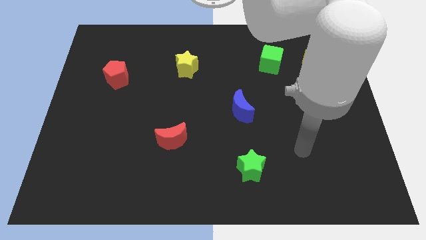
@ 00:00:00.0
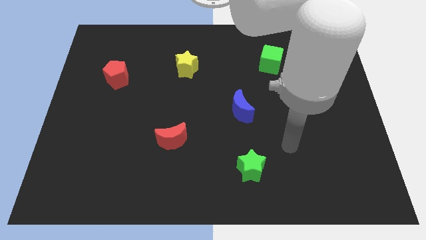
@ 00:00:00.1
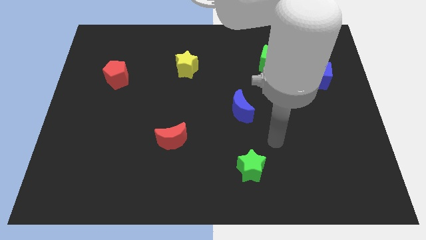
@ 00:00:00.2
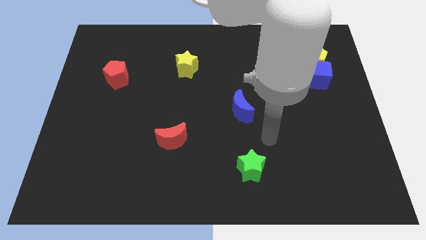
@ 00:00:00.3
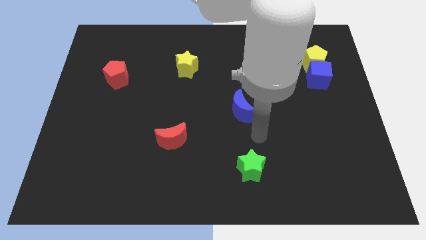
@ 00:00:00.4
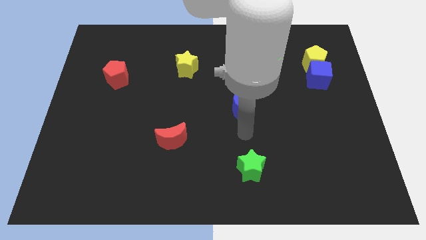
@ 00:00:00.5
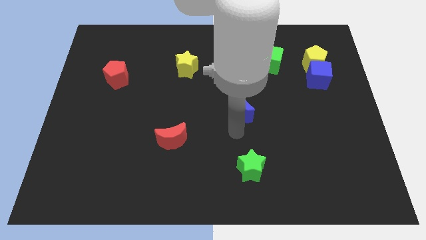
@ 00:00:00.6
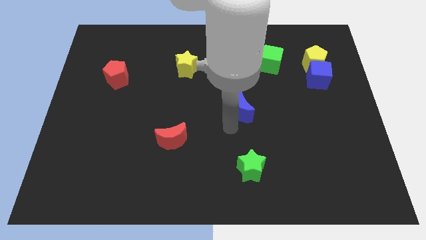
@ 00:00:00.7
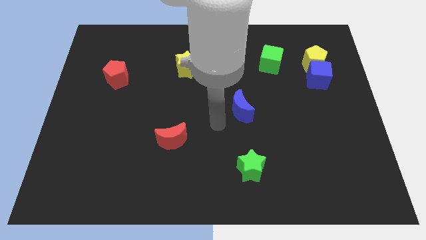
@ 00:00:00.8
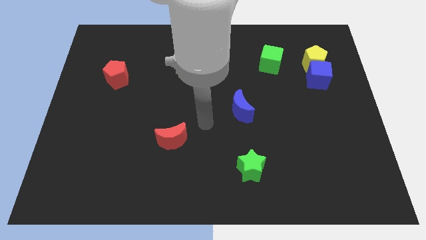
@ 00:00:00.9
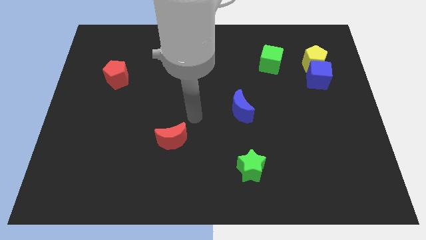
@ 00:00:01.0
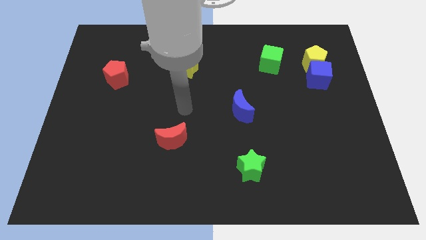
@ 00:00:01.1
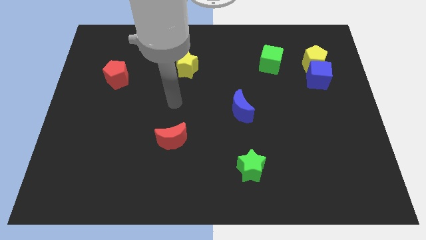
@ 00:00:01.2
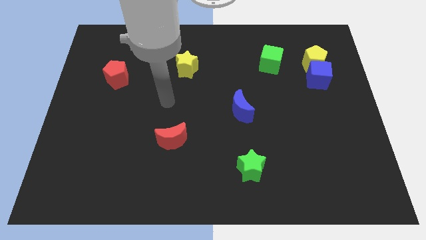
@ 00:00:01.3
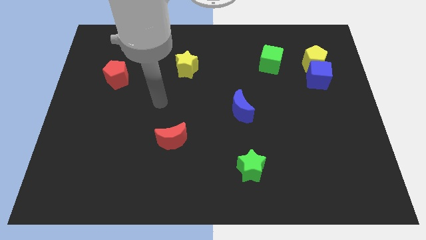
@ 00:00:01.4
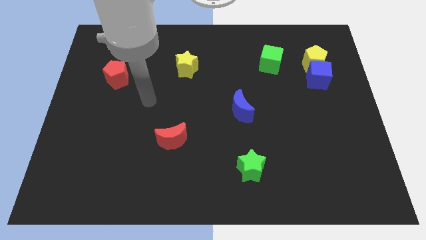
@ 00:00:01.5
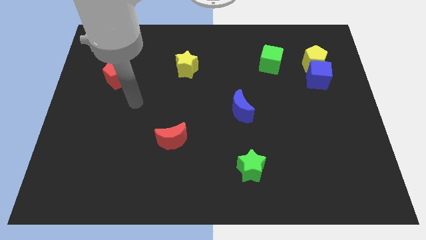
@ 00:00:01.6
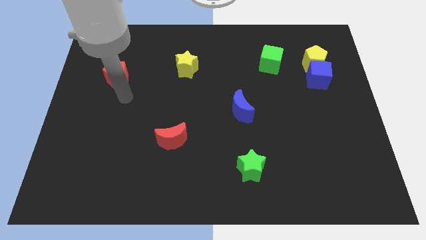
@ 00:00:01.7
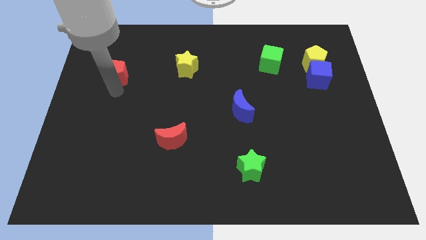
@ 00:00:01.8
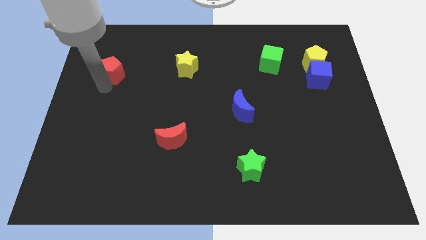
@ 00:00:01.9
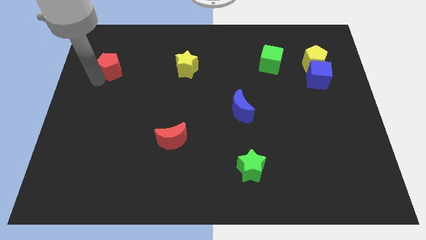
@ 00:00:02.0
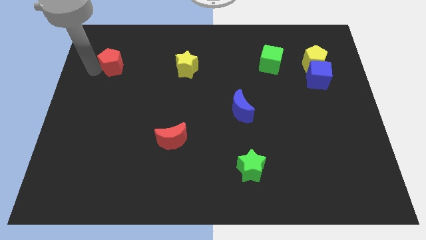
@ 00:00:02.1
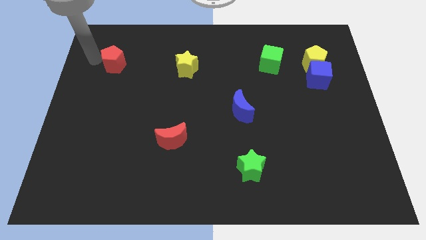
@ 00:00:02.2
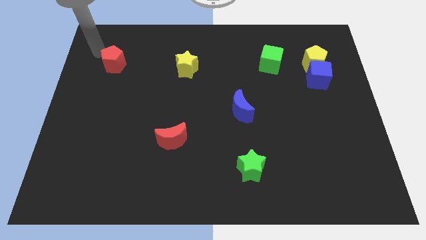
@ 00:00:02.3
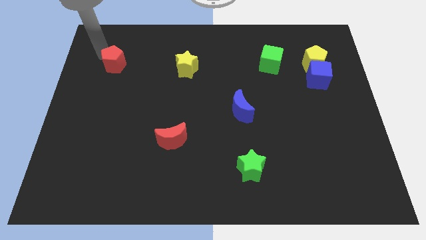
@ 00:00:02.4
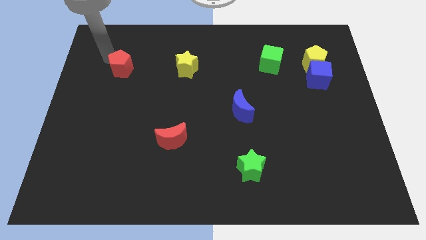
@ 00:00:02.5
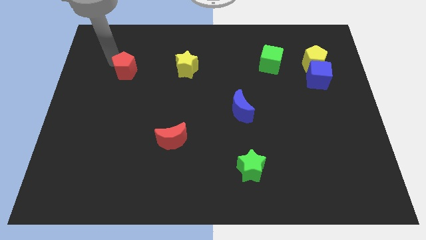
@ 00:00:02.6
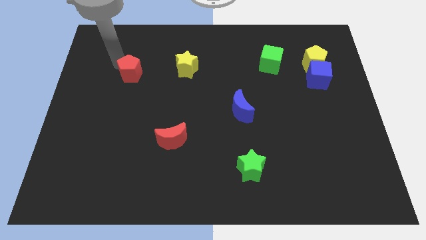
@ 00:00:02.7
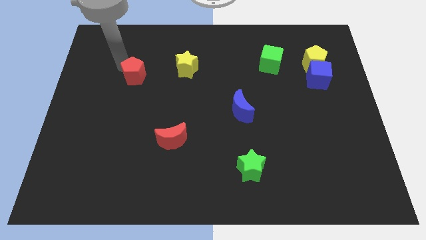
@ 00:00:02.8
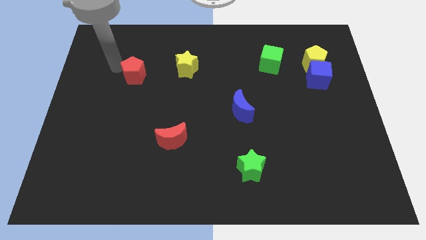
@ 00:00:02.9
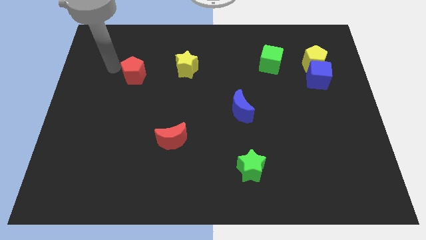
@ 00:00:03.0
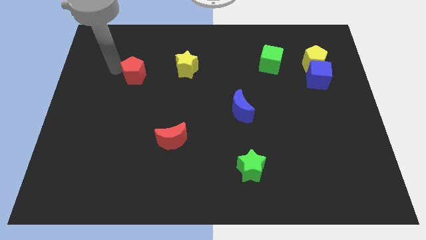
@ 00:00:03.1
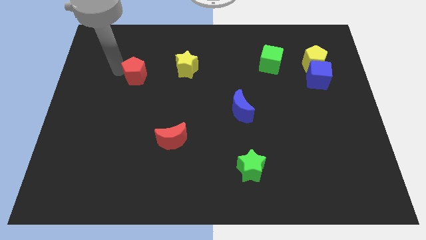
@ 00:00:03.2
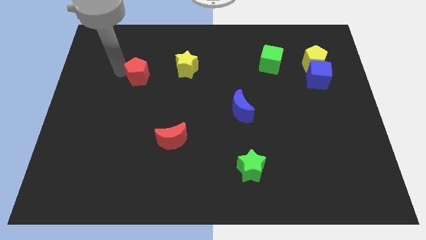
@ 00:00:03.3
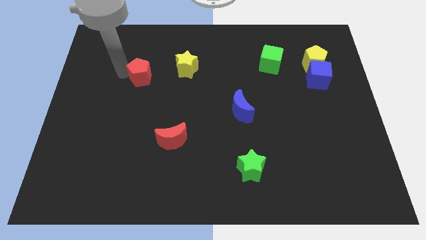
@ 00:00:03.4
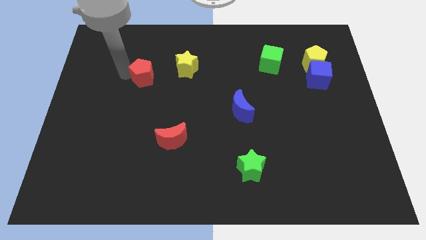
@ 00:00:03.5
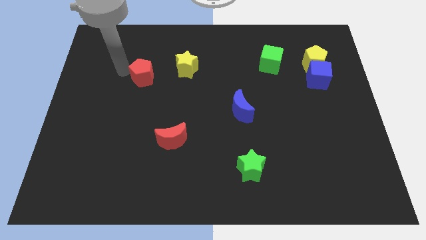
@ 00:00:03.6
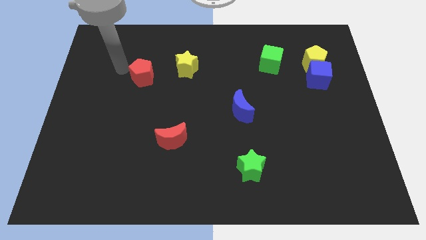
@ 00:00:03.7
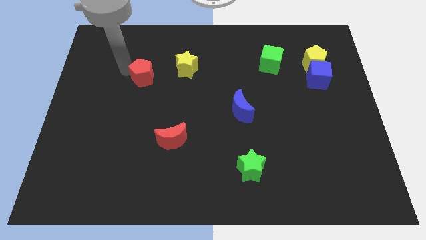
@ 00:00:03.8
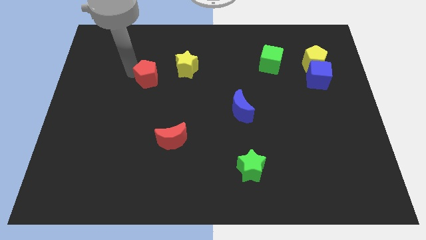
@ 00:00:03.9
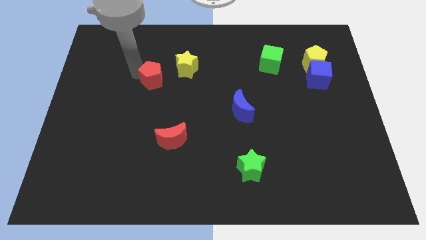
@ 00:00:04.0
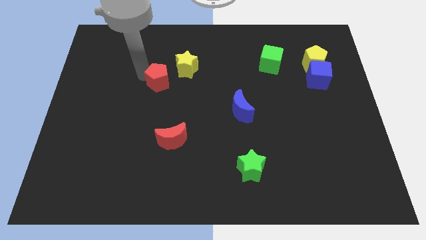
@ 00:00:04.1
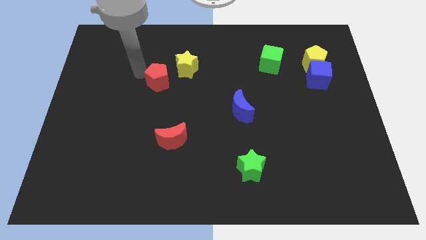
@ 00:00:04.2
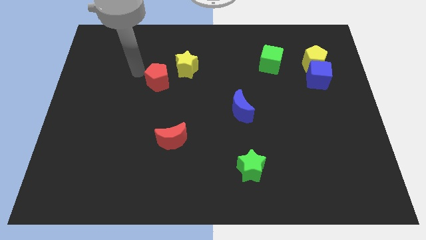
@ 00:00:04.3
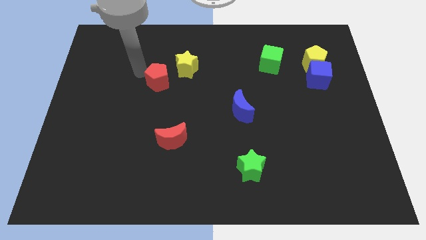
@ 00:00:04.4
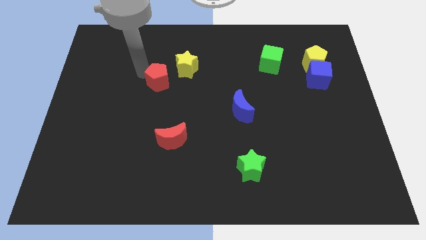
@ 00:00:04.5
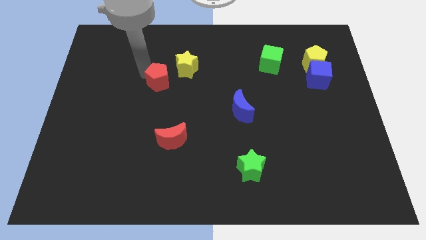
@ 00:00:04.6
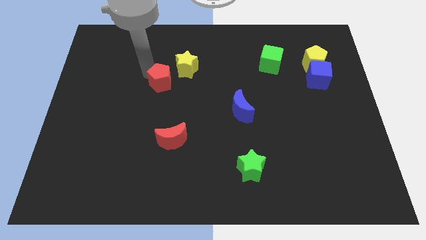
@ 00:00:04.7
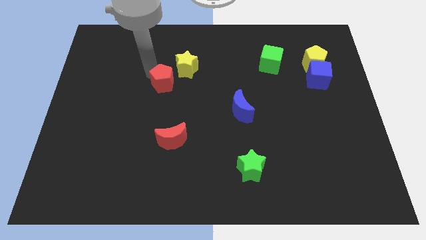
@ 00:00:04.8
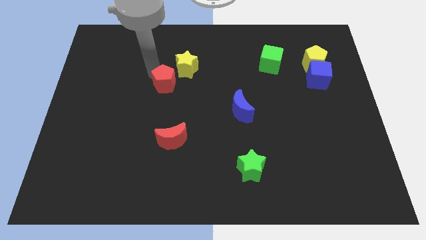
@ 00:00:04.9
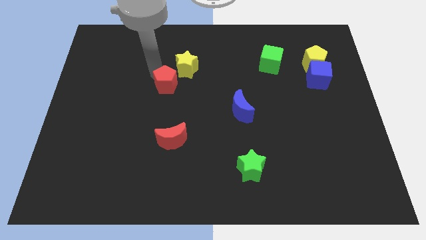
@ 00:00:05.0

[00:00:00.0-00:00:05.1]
push the red pentagon to the center of the board

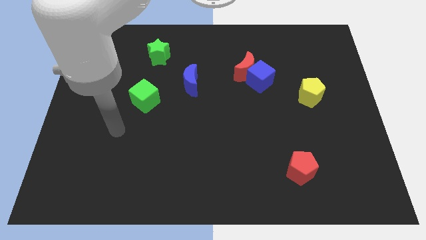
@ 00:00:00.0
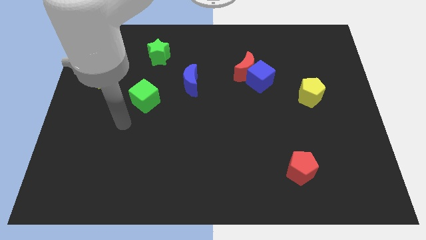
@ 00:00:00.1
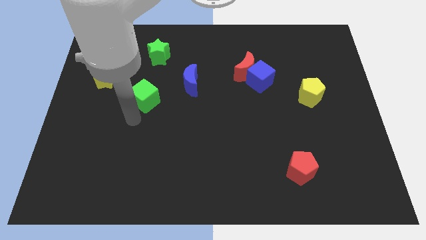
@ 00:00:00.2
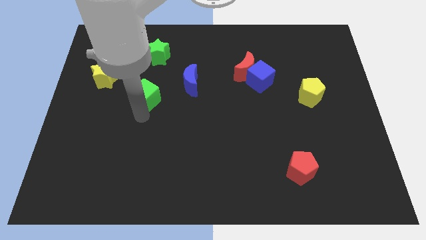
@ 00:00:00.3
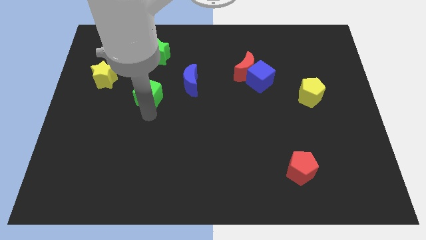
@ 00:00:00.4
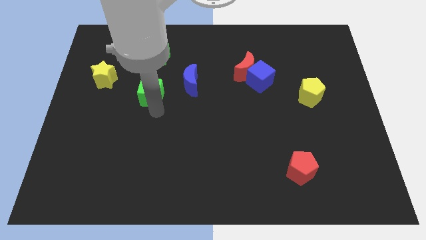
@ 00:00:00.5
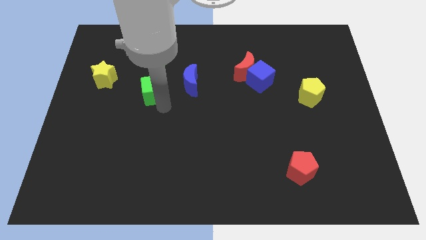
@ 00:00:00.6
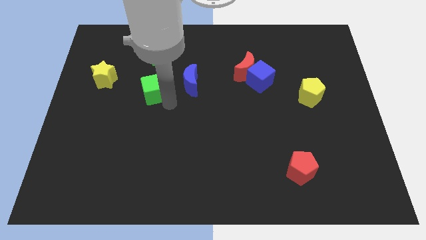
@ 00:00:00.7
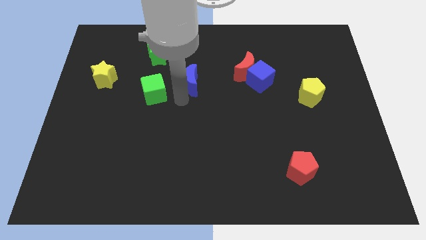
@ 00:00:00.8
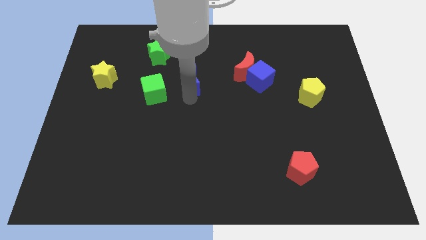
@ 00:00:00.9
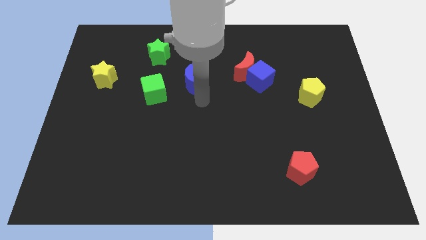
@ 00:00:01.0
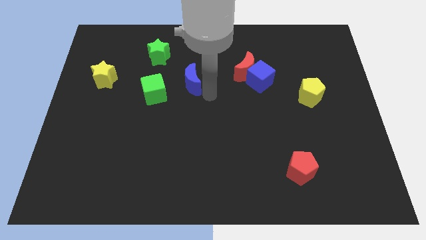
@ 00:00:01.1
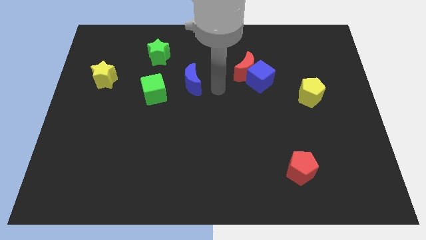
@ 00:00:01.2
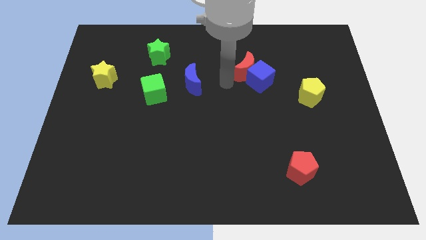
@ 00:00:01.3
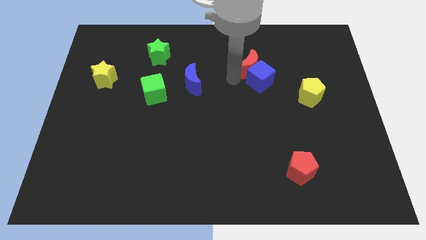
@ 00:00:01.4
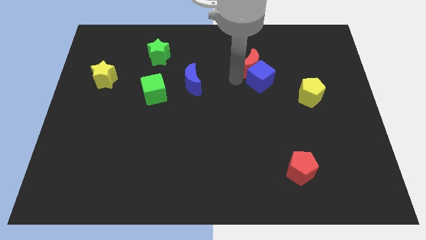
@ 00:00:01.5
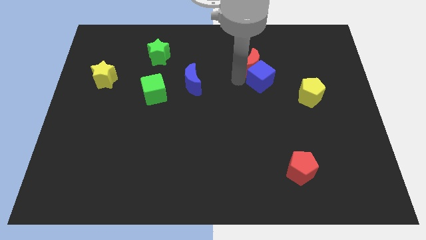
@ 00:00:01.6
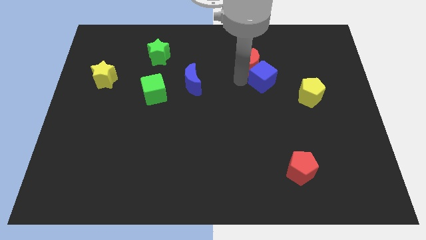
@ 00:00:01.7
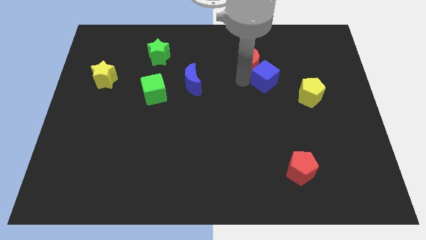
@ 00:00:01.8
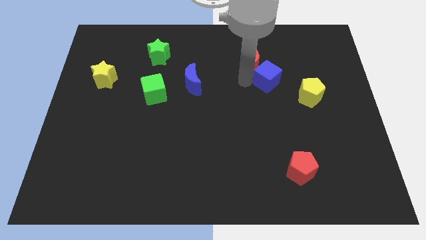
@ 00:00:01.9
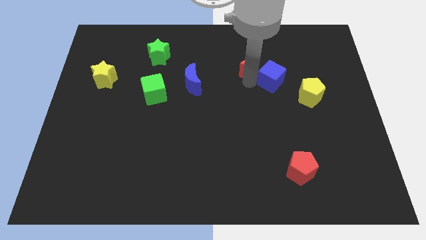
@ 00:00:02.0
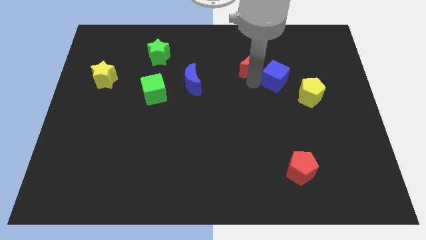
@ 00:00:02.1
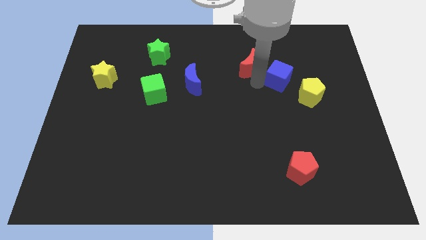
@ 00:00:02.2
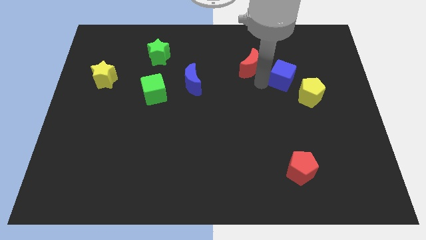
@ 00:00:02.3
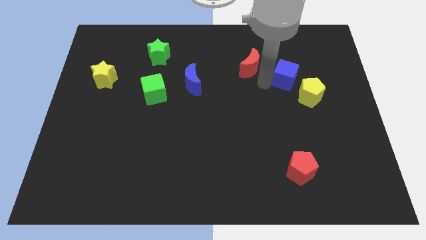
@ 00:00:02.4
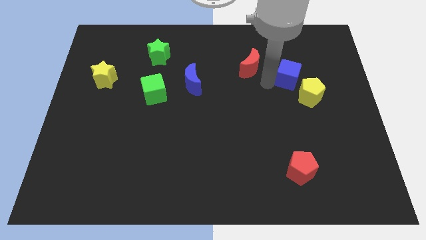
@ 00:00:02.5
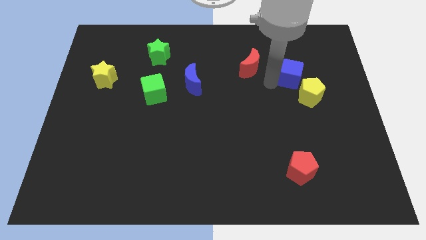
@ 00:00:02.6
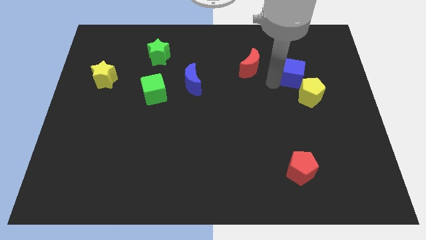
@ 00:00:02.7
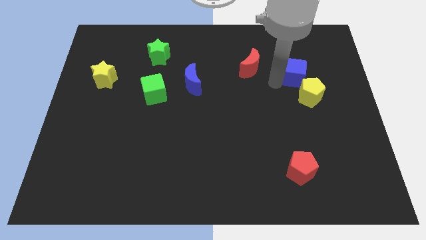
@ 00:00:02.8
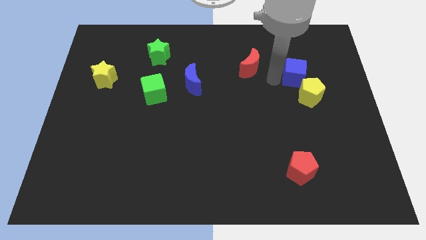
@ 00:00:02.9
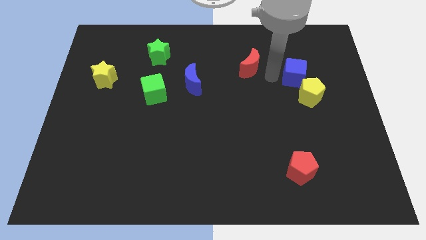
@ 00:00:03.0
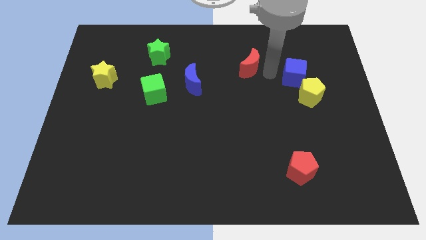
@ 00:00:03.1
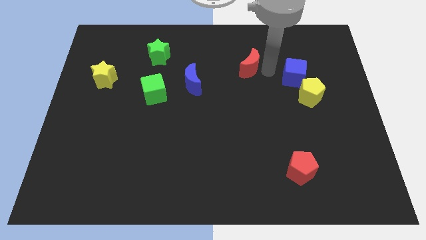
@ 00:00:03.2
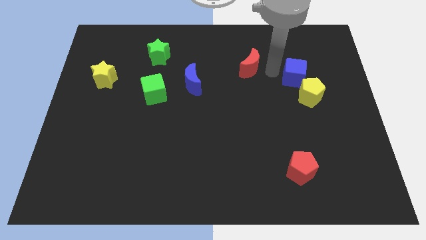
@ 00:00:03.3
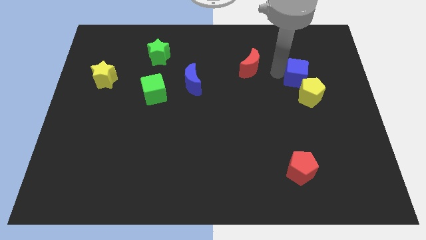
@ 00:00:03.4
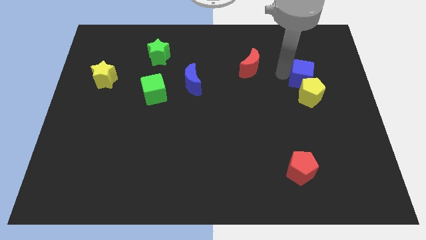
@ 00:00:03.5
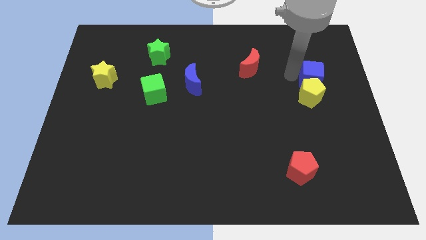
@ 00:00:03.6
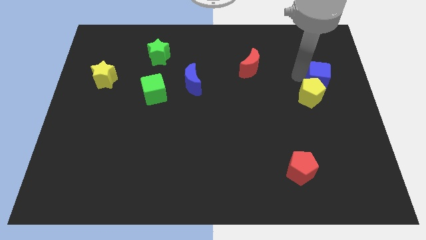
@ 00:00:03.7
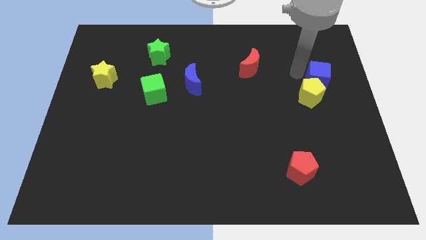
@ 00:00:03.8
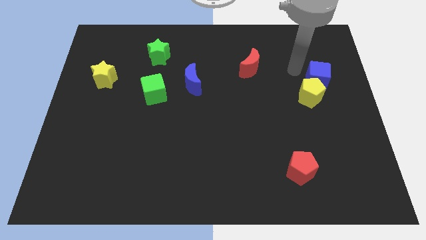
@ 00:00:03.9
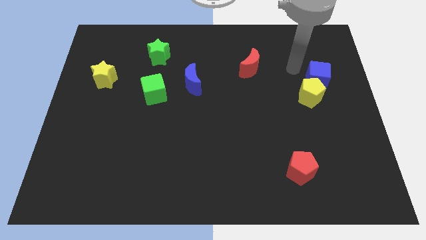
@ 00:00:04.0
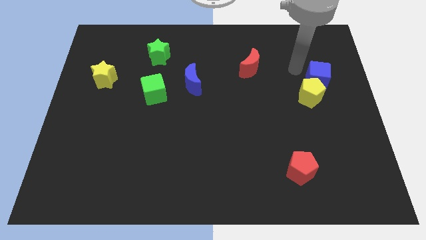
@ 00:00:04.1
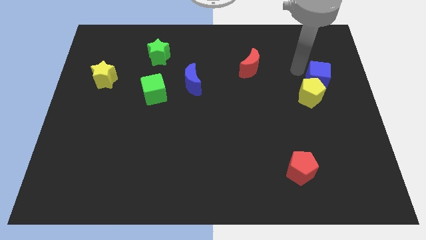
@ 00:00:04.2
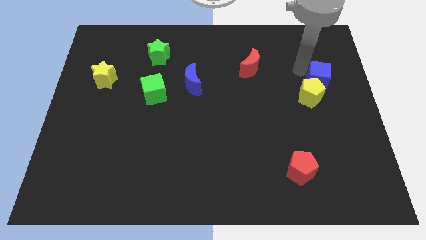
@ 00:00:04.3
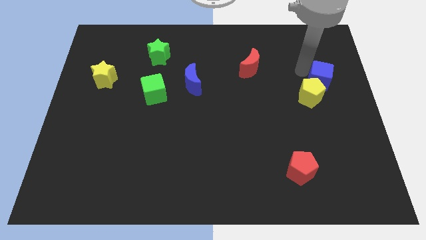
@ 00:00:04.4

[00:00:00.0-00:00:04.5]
move the blue cube to the right side
